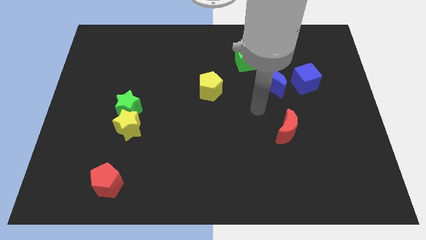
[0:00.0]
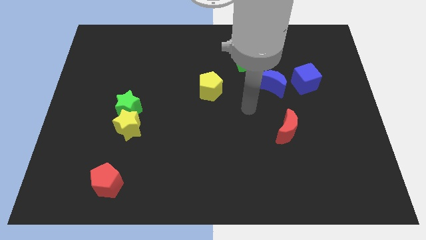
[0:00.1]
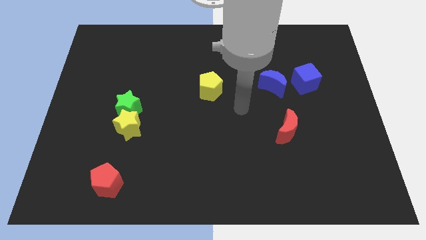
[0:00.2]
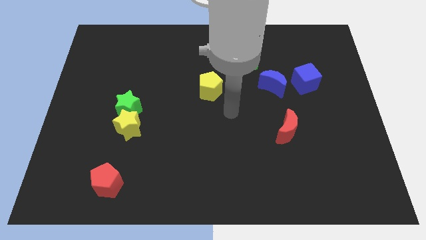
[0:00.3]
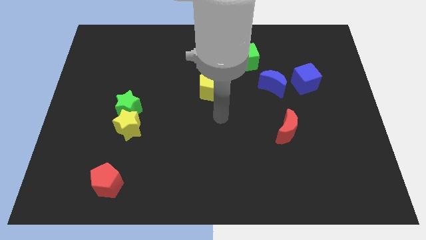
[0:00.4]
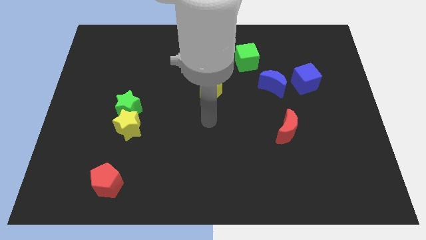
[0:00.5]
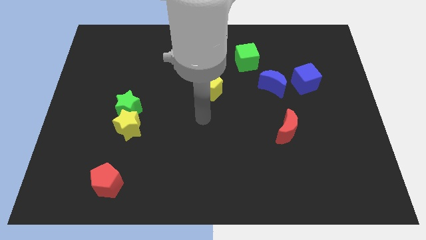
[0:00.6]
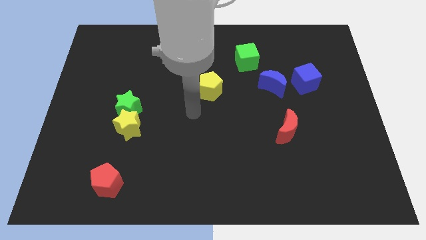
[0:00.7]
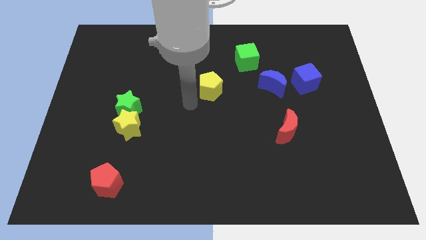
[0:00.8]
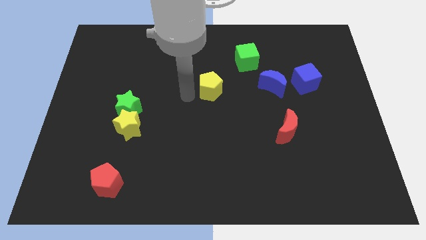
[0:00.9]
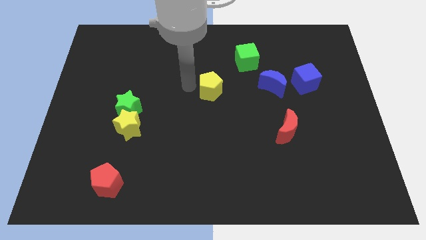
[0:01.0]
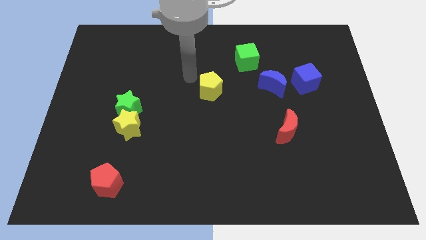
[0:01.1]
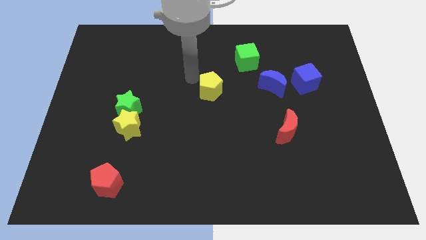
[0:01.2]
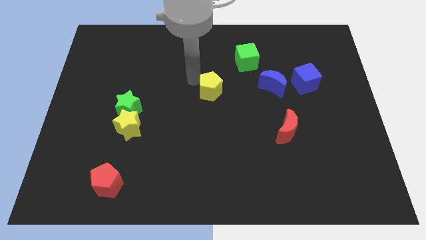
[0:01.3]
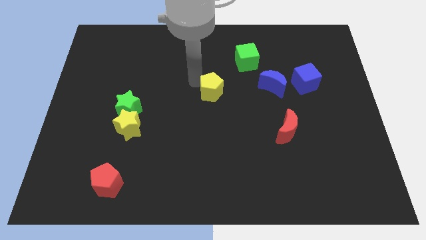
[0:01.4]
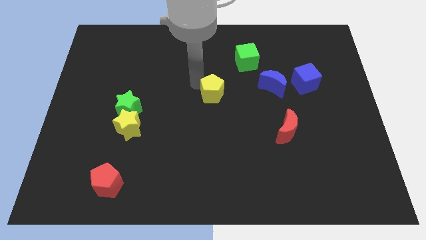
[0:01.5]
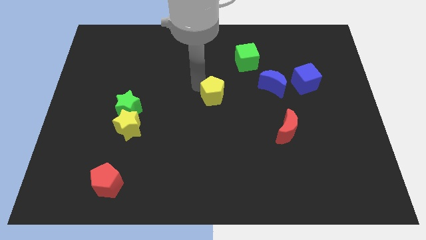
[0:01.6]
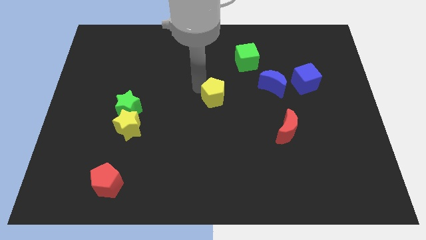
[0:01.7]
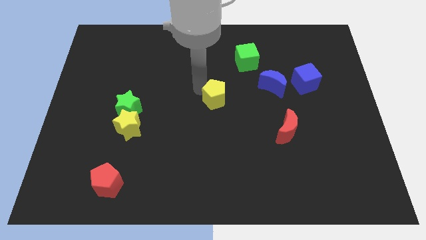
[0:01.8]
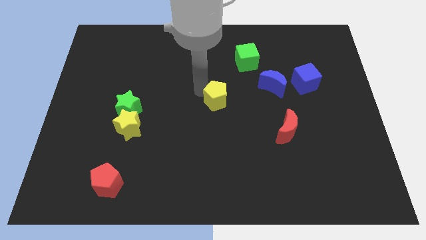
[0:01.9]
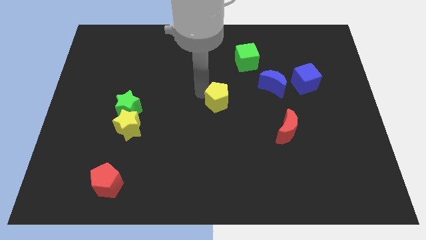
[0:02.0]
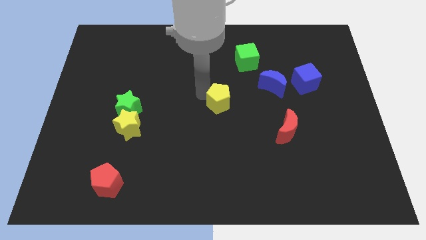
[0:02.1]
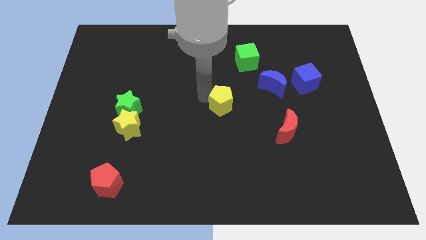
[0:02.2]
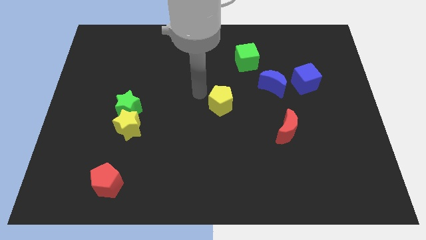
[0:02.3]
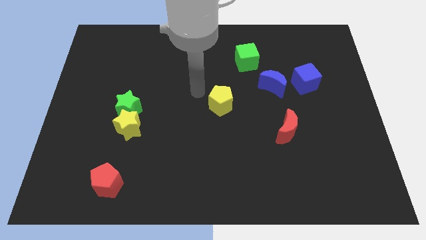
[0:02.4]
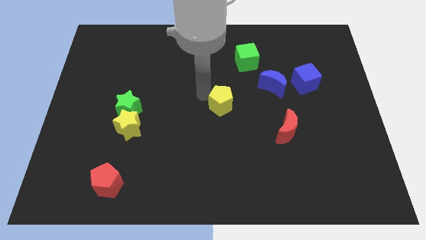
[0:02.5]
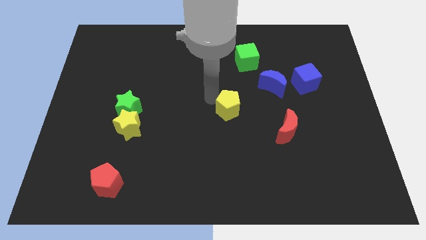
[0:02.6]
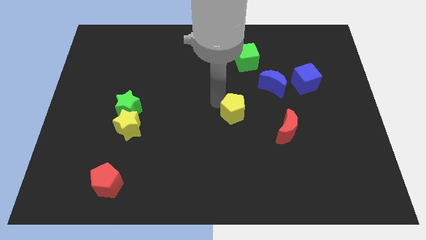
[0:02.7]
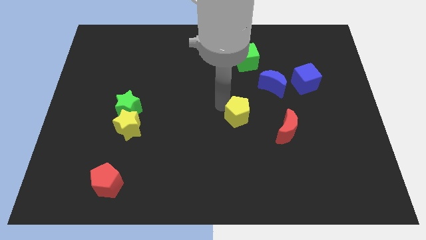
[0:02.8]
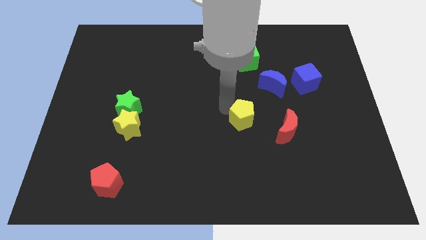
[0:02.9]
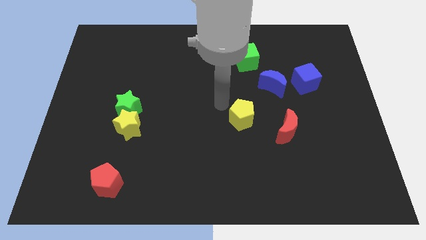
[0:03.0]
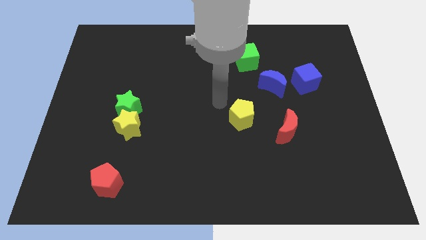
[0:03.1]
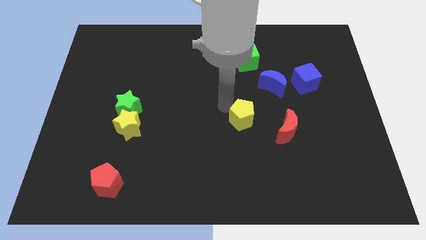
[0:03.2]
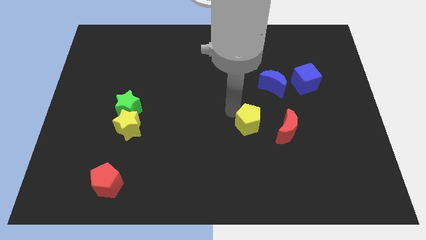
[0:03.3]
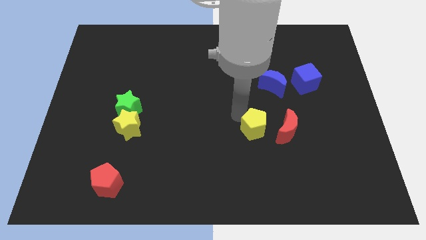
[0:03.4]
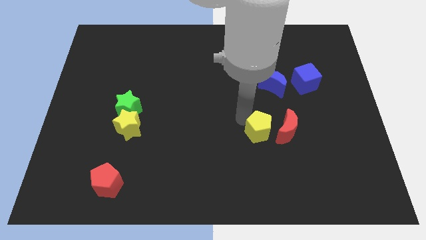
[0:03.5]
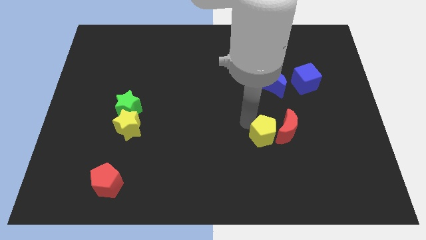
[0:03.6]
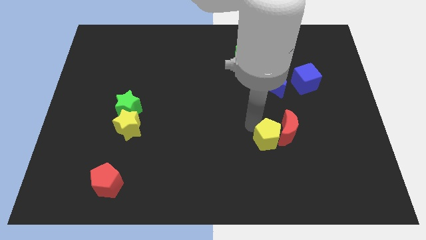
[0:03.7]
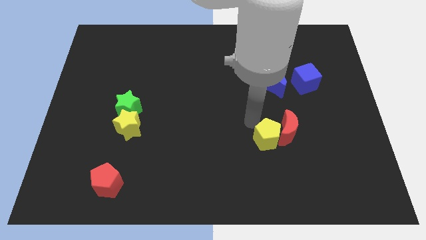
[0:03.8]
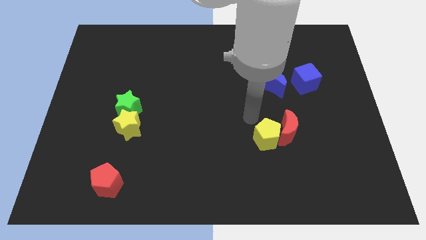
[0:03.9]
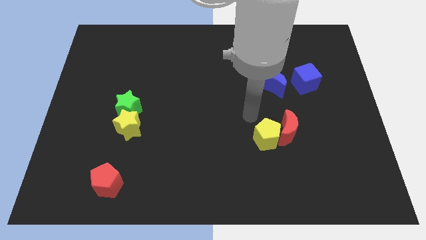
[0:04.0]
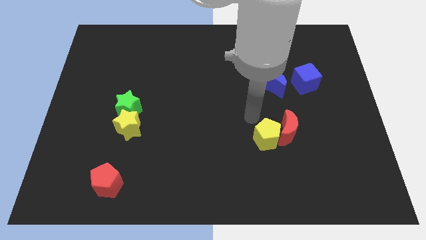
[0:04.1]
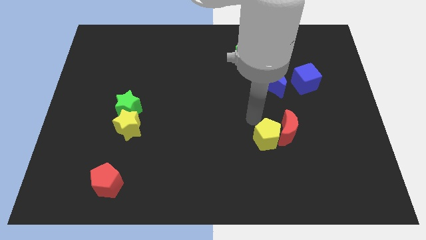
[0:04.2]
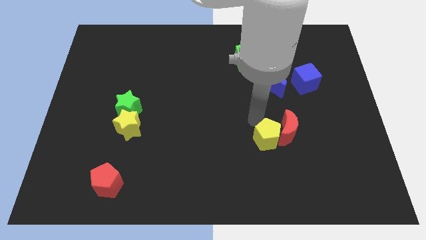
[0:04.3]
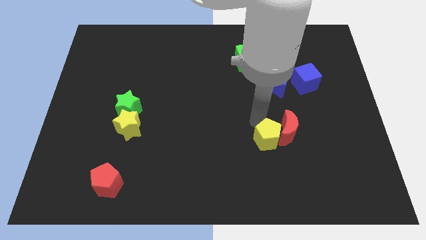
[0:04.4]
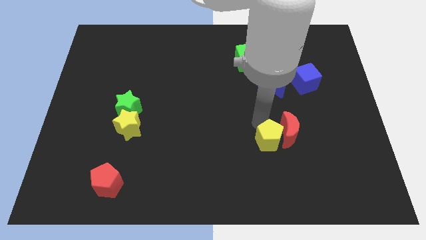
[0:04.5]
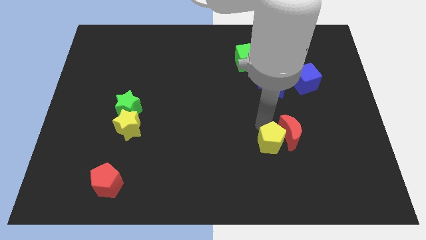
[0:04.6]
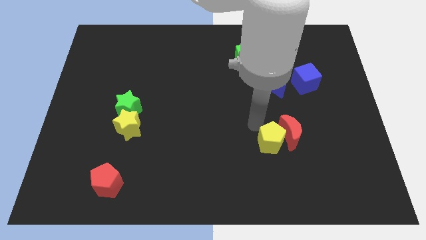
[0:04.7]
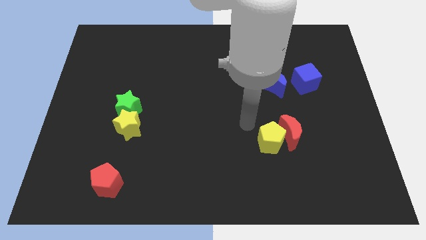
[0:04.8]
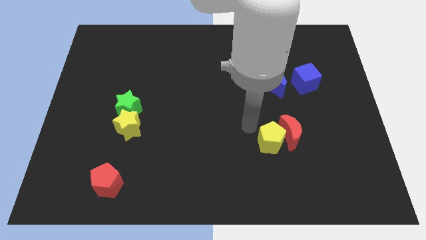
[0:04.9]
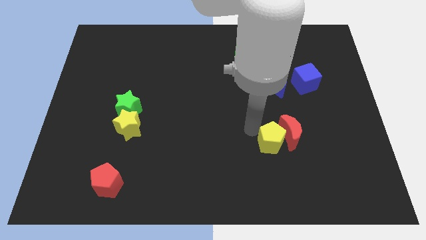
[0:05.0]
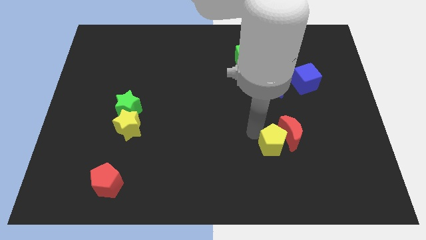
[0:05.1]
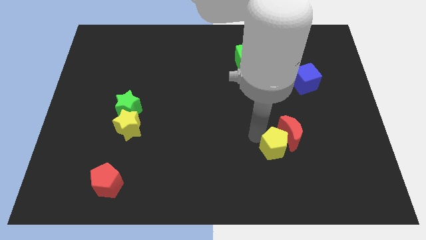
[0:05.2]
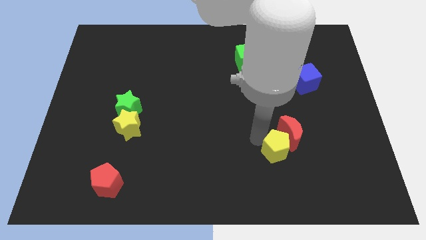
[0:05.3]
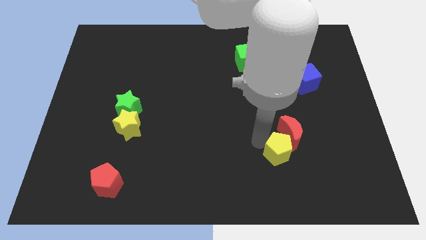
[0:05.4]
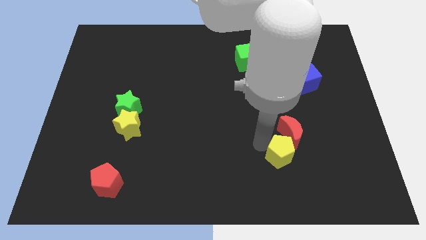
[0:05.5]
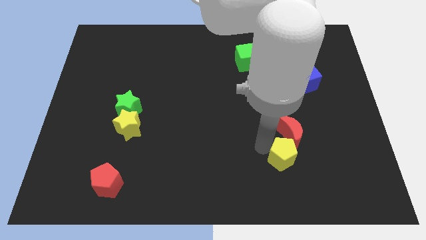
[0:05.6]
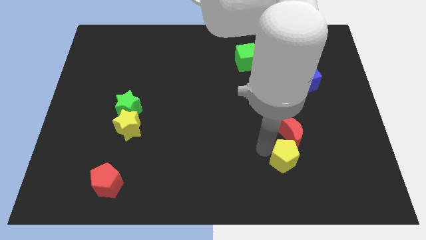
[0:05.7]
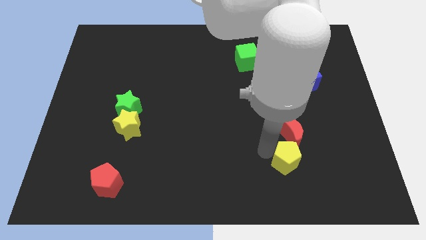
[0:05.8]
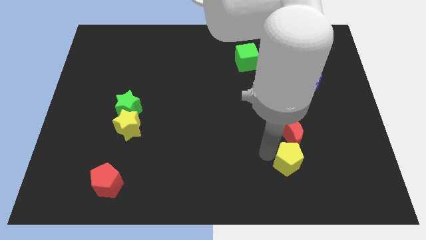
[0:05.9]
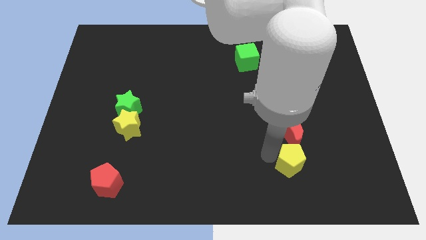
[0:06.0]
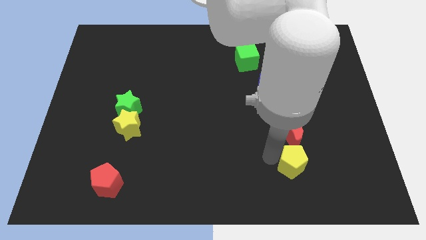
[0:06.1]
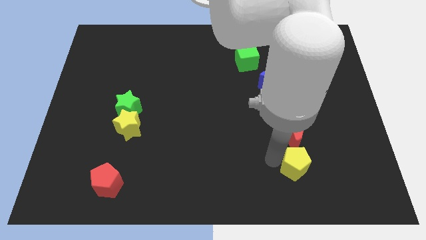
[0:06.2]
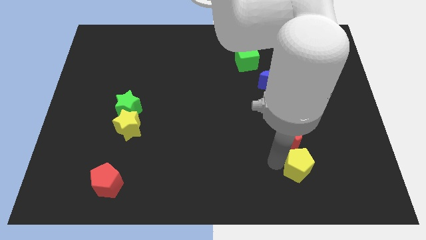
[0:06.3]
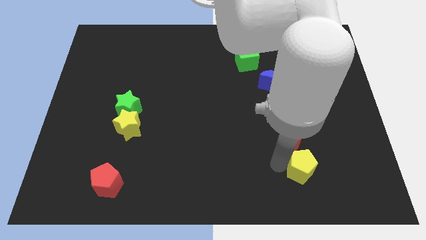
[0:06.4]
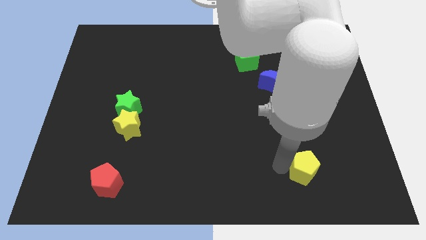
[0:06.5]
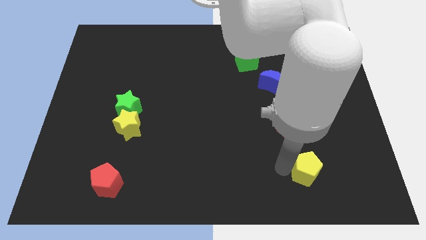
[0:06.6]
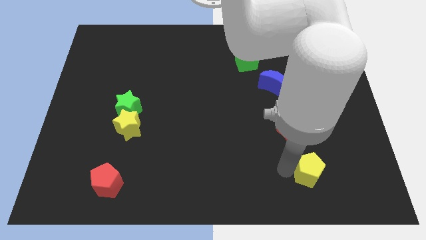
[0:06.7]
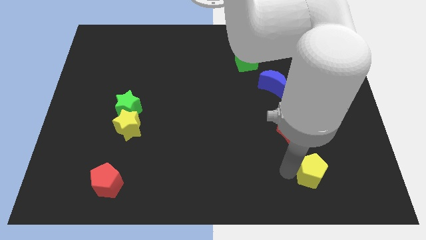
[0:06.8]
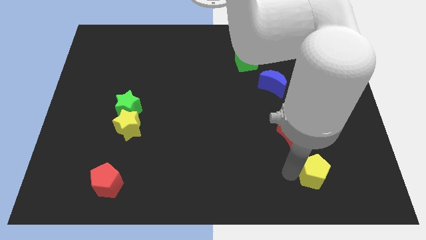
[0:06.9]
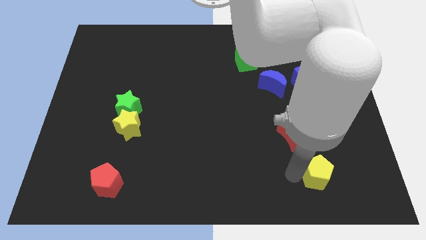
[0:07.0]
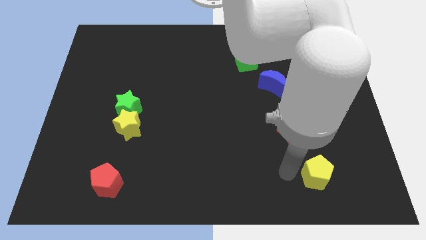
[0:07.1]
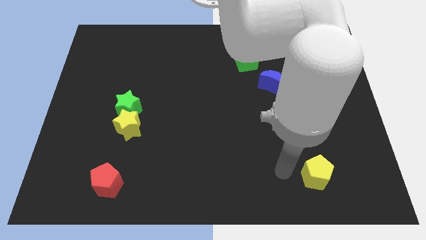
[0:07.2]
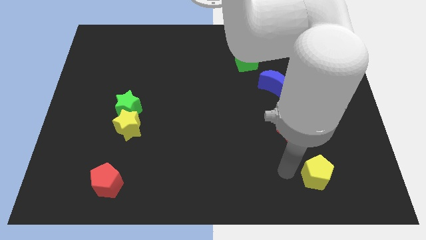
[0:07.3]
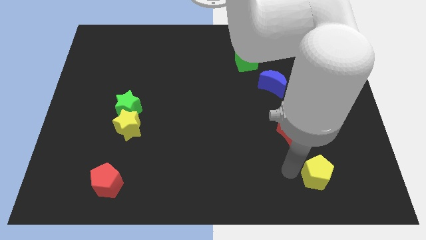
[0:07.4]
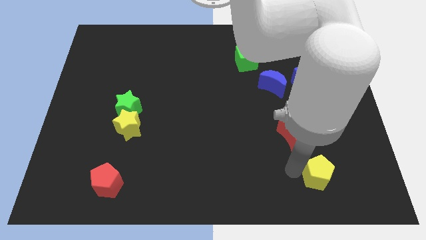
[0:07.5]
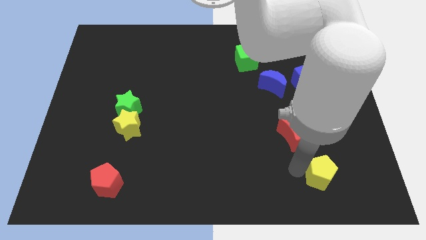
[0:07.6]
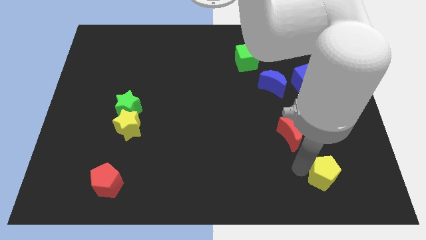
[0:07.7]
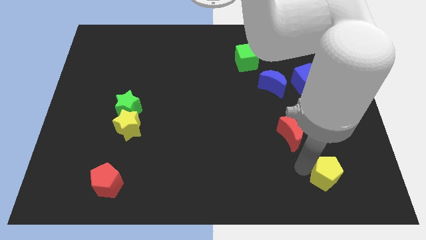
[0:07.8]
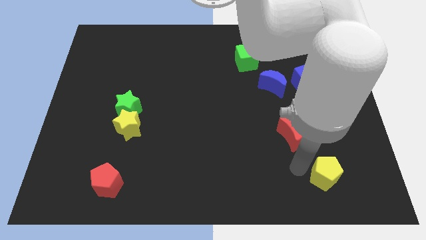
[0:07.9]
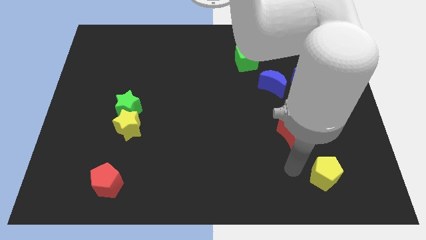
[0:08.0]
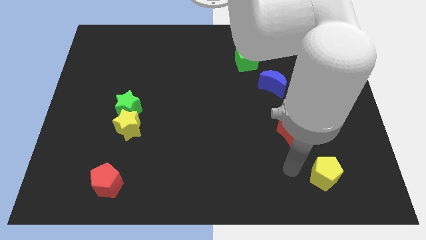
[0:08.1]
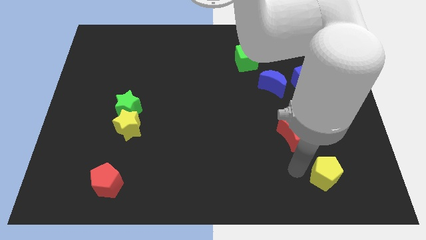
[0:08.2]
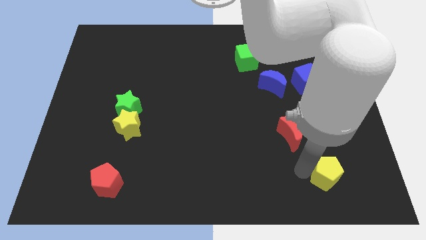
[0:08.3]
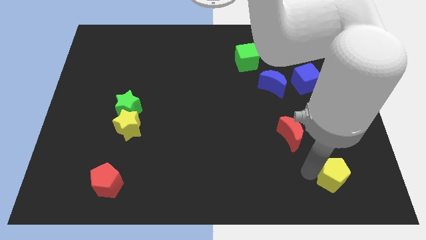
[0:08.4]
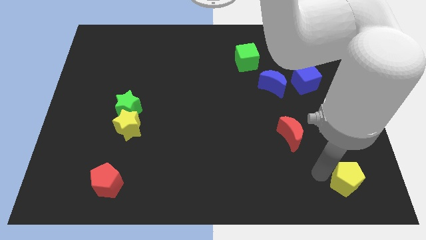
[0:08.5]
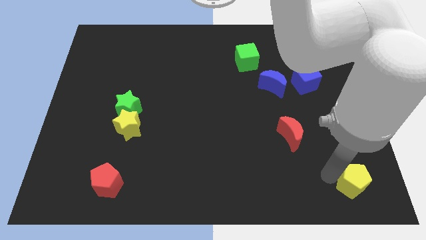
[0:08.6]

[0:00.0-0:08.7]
move the yellow pentagon to the lower right corner
